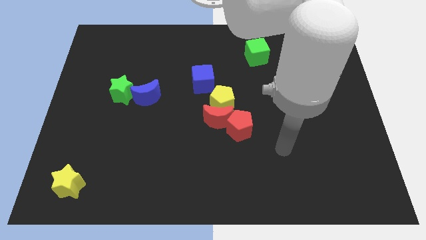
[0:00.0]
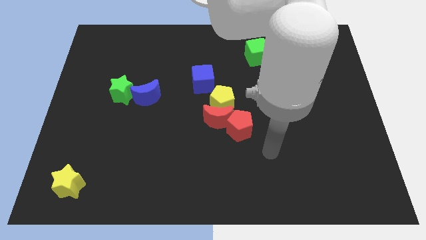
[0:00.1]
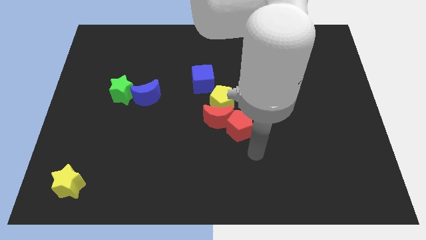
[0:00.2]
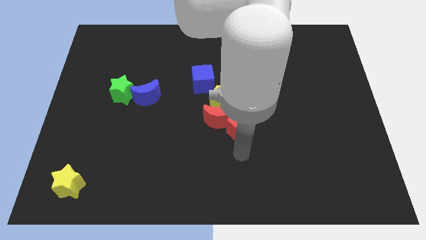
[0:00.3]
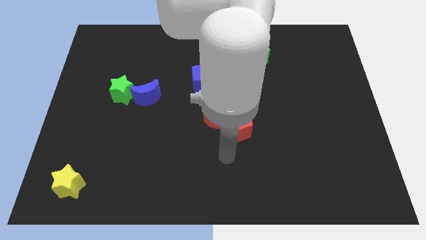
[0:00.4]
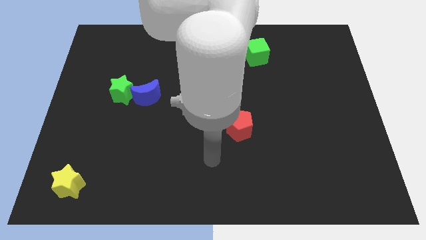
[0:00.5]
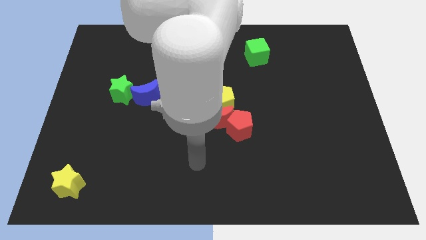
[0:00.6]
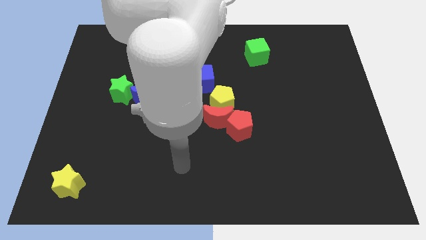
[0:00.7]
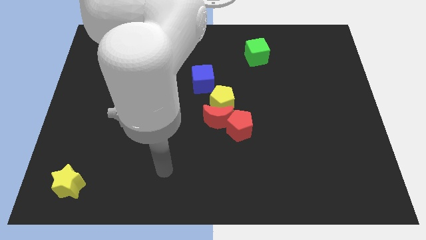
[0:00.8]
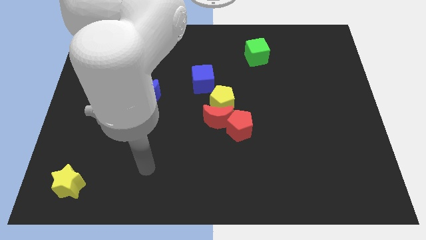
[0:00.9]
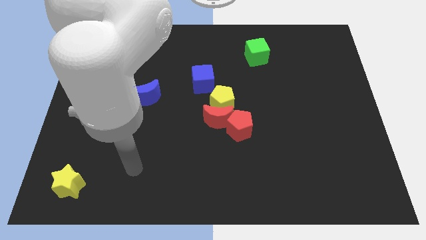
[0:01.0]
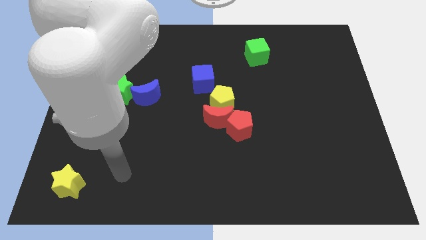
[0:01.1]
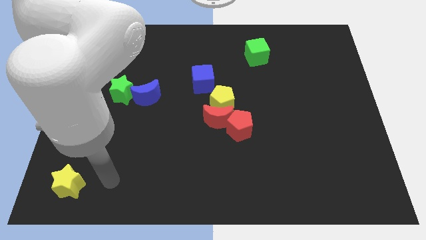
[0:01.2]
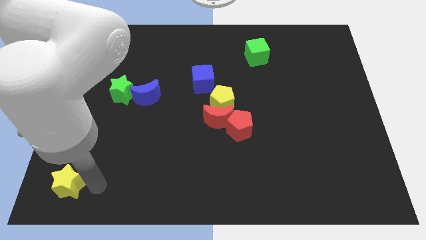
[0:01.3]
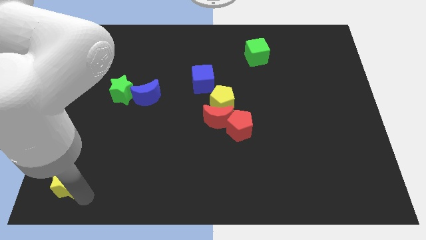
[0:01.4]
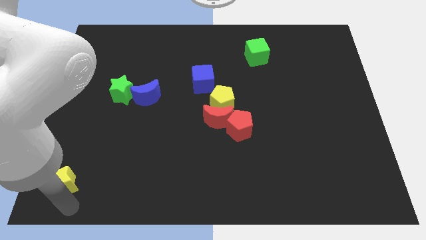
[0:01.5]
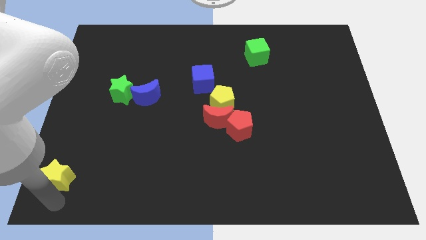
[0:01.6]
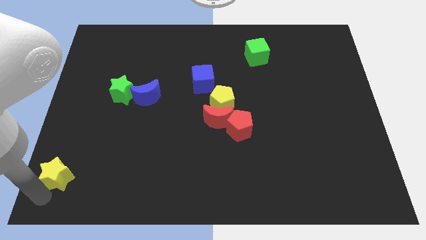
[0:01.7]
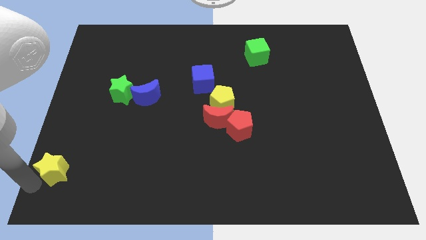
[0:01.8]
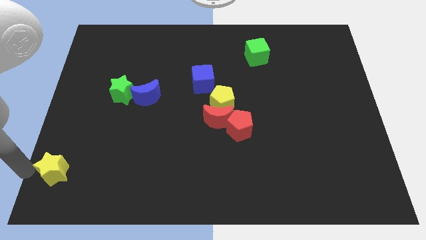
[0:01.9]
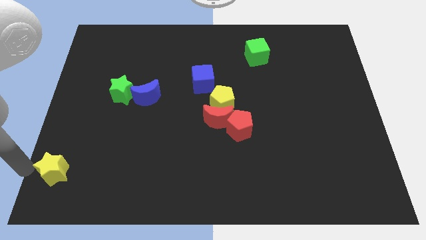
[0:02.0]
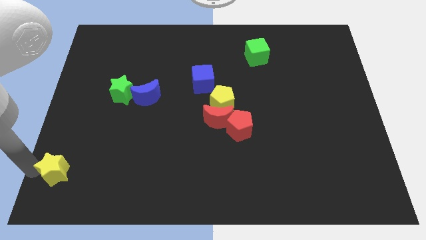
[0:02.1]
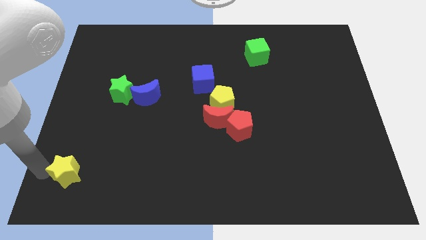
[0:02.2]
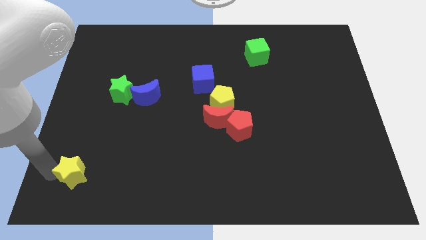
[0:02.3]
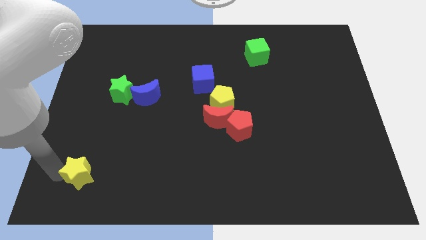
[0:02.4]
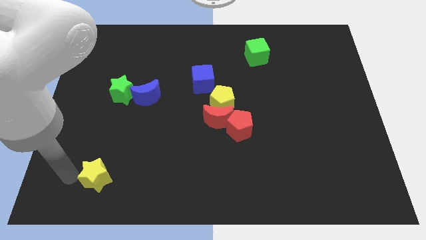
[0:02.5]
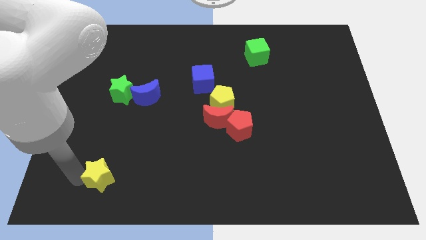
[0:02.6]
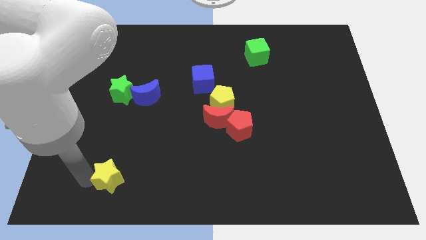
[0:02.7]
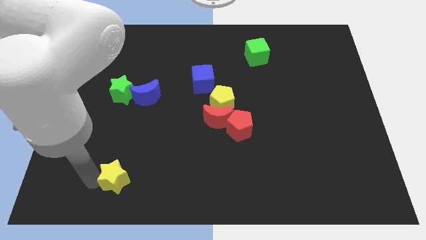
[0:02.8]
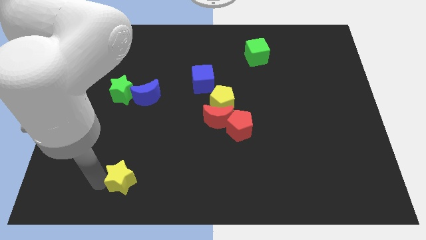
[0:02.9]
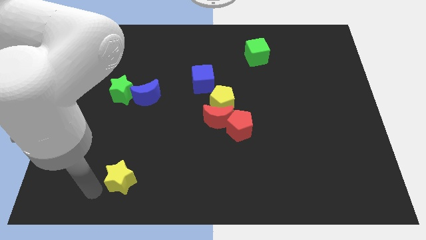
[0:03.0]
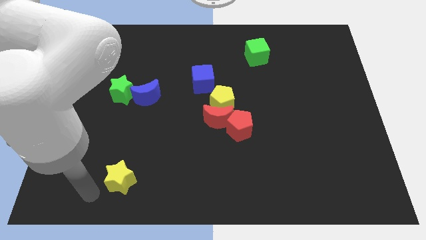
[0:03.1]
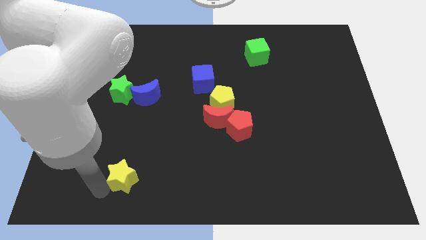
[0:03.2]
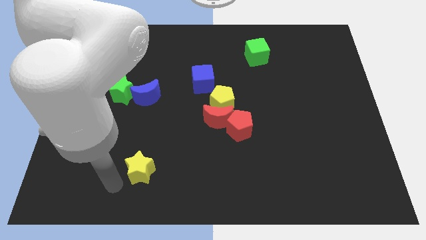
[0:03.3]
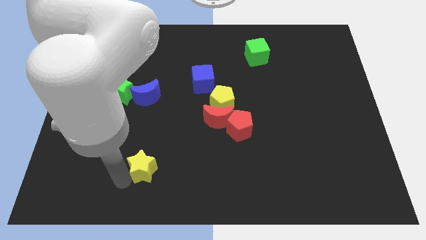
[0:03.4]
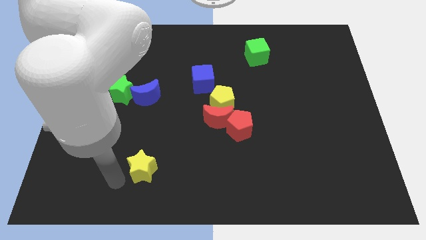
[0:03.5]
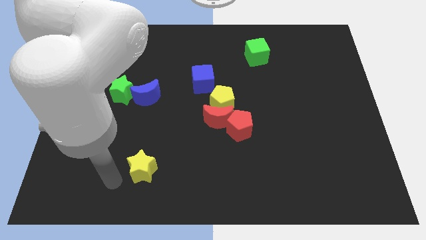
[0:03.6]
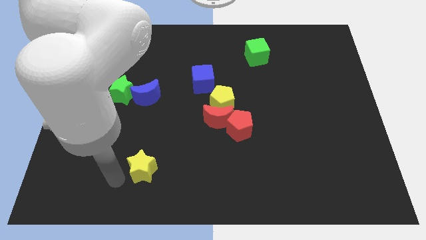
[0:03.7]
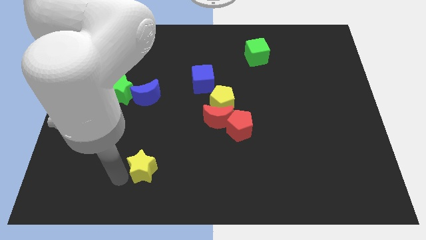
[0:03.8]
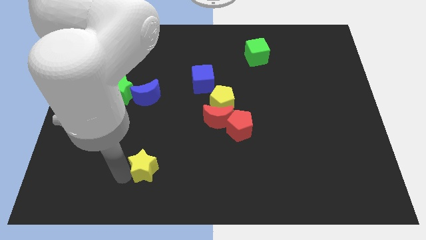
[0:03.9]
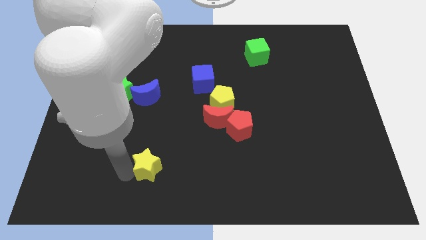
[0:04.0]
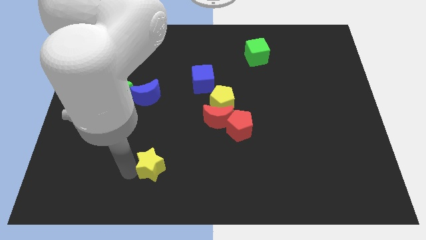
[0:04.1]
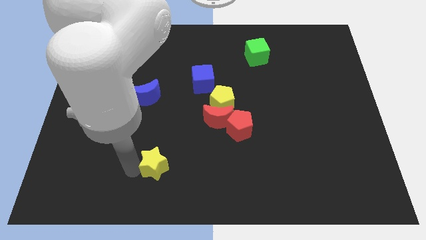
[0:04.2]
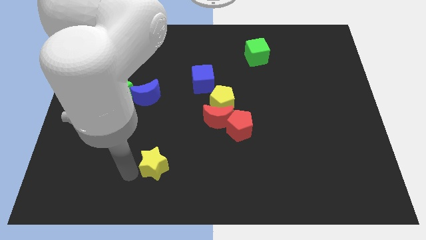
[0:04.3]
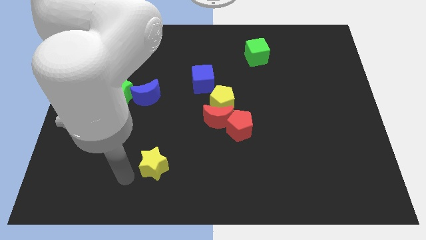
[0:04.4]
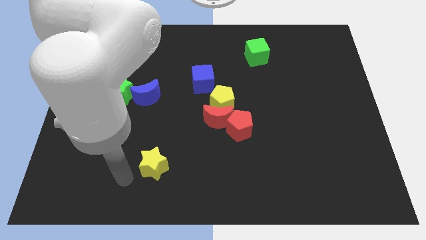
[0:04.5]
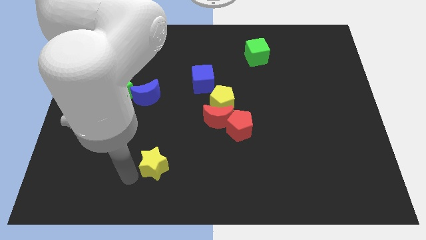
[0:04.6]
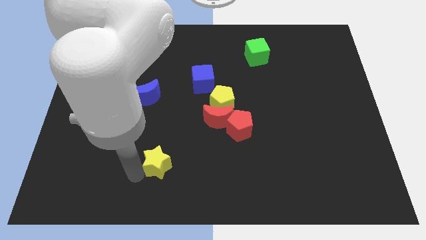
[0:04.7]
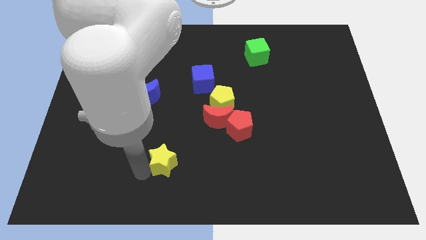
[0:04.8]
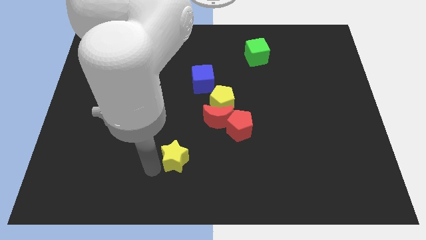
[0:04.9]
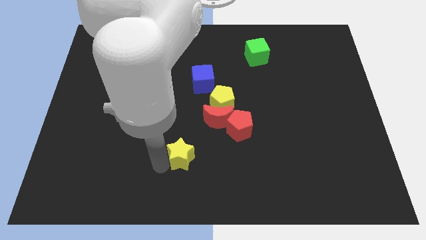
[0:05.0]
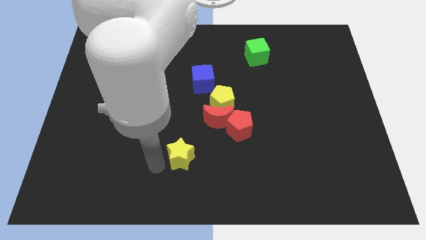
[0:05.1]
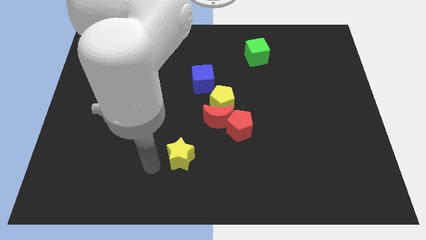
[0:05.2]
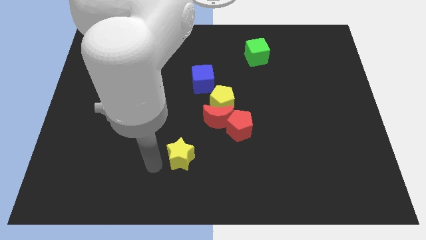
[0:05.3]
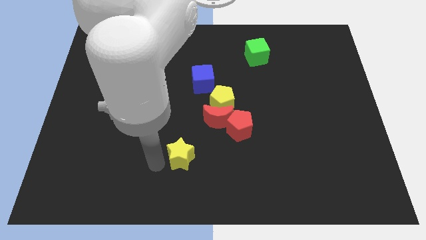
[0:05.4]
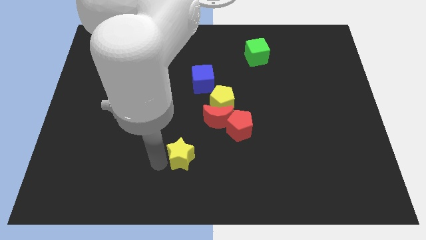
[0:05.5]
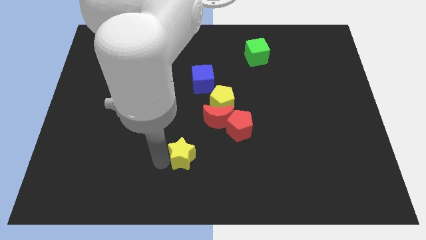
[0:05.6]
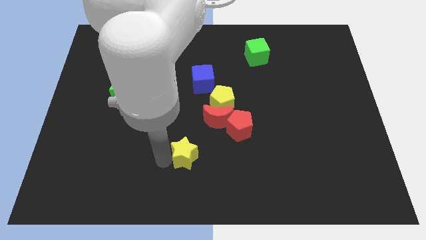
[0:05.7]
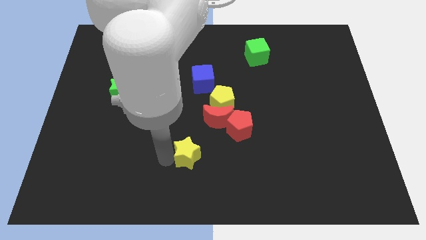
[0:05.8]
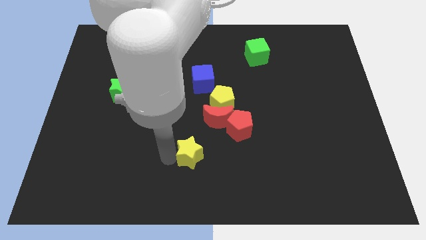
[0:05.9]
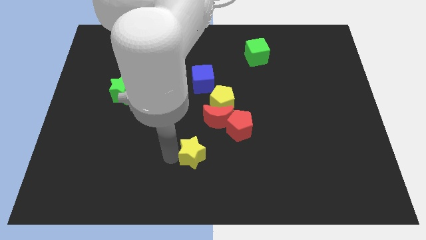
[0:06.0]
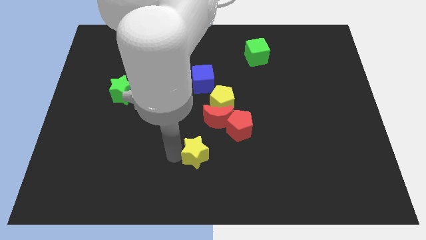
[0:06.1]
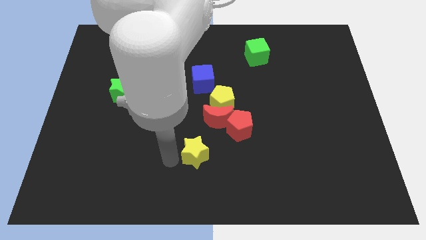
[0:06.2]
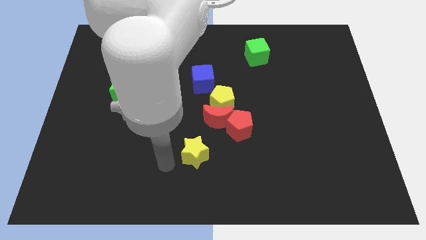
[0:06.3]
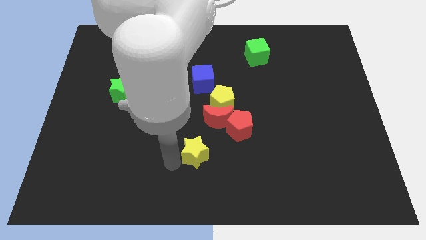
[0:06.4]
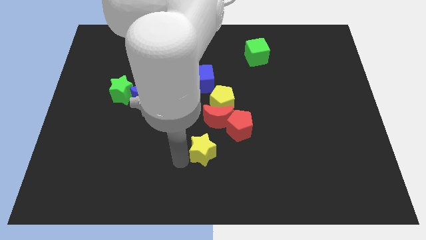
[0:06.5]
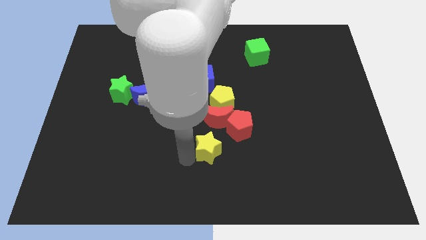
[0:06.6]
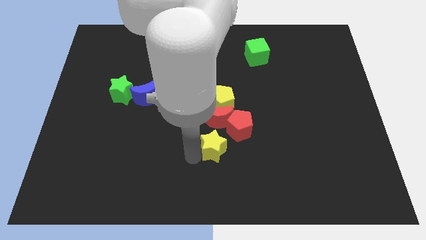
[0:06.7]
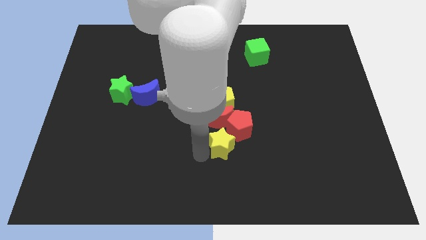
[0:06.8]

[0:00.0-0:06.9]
push the yellow star to the bottom right side of the red moon

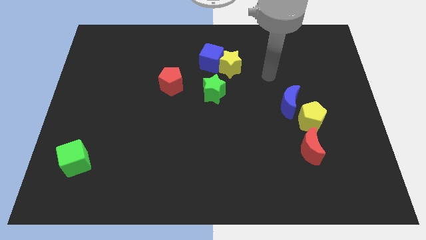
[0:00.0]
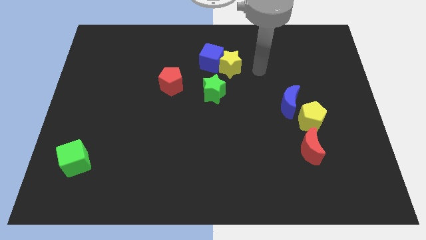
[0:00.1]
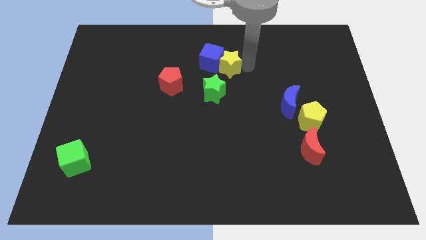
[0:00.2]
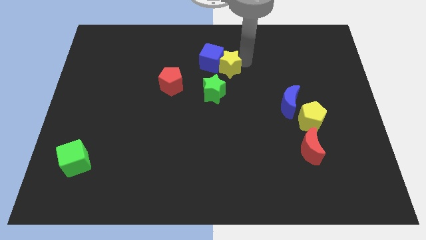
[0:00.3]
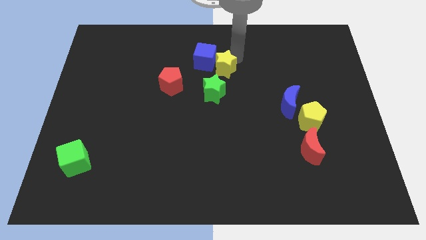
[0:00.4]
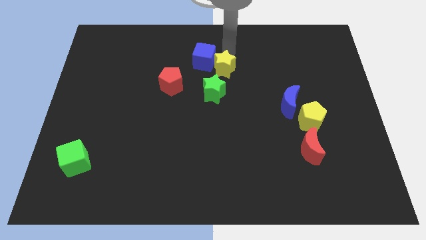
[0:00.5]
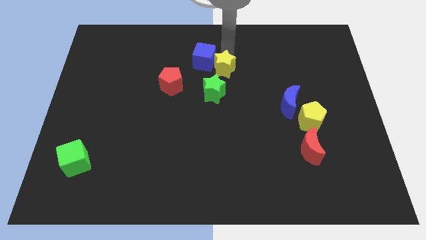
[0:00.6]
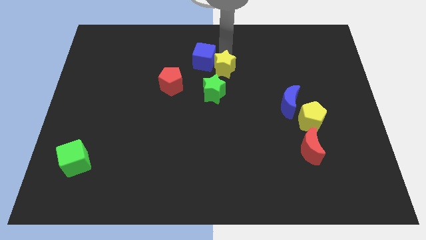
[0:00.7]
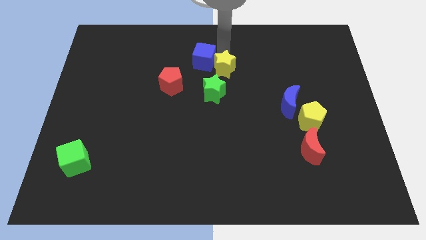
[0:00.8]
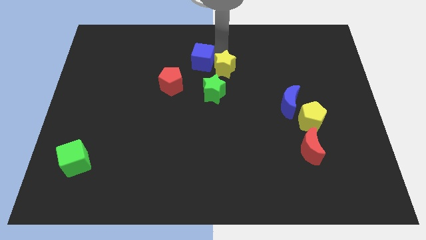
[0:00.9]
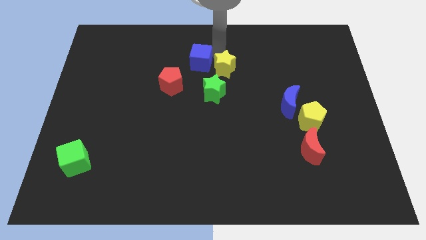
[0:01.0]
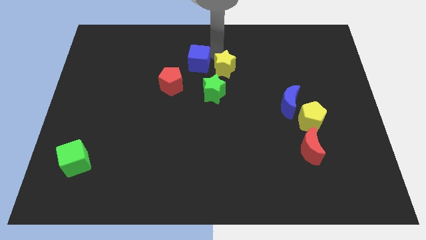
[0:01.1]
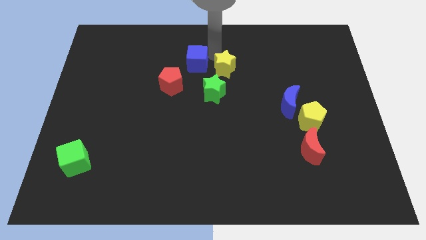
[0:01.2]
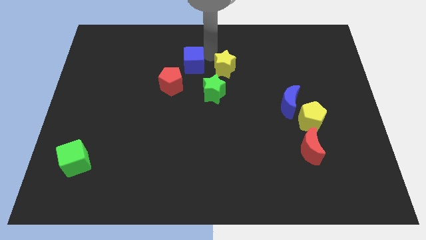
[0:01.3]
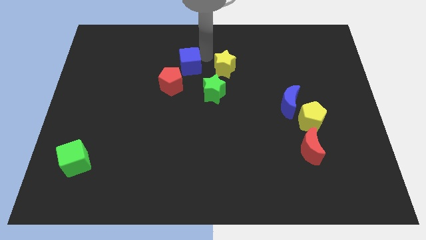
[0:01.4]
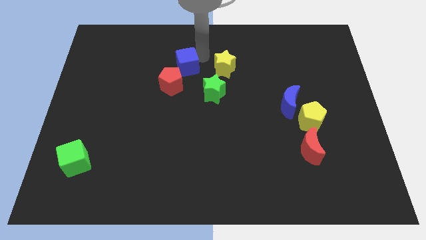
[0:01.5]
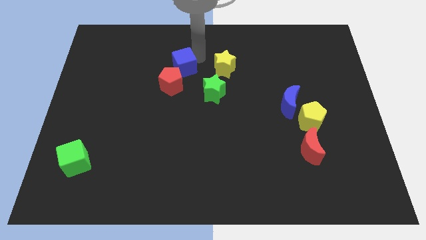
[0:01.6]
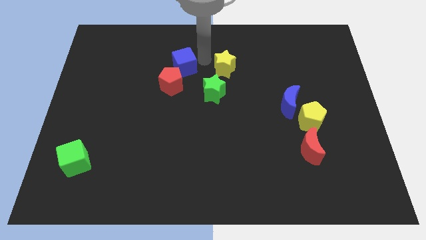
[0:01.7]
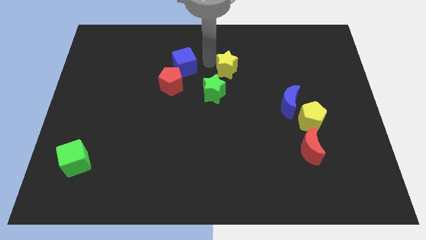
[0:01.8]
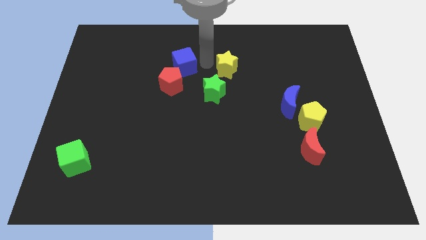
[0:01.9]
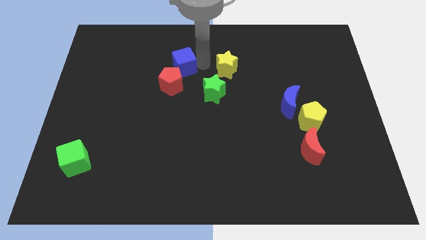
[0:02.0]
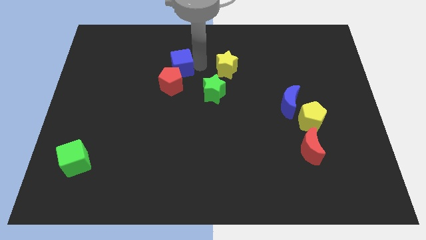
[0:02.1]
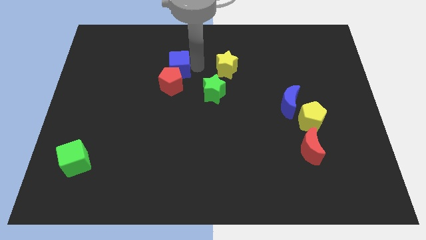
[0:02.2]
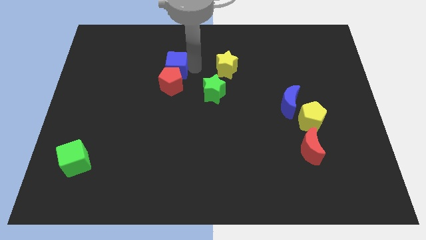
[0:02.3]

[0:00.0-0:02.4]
move the blue cube to the top left side of the red pentagon
